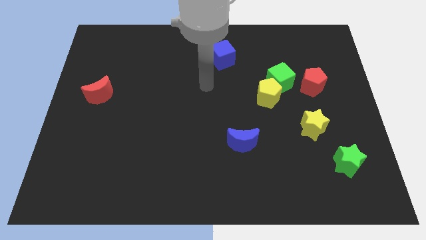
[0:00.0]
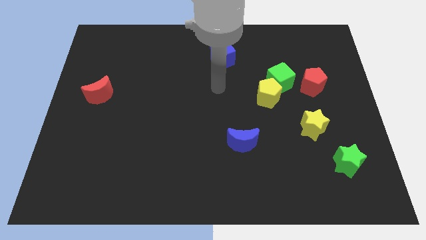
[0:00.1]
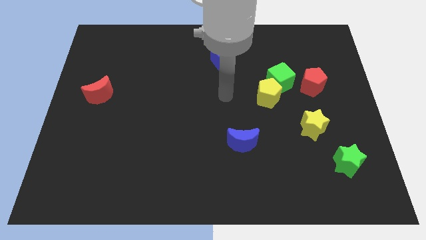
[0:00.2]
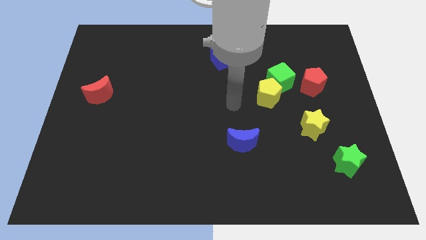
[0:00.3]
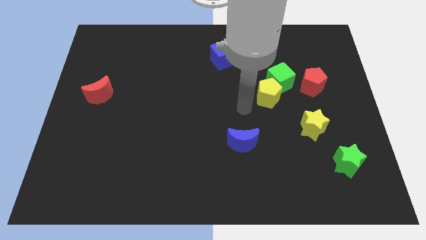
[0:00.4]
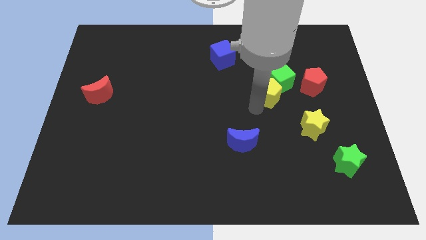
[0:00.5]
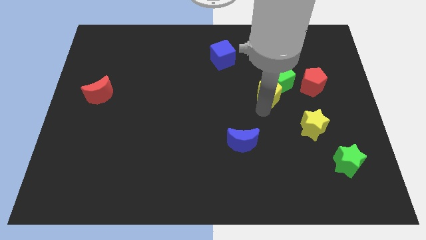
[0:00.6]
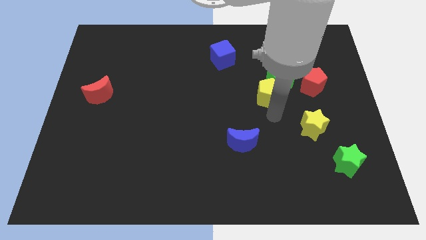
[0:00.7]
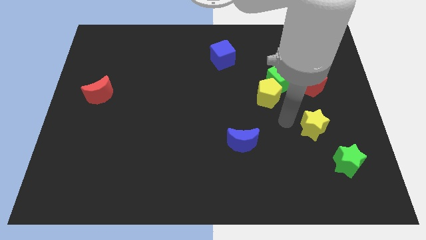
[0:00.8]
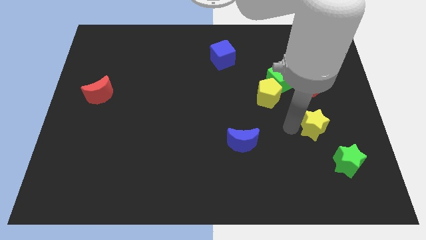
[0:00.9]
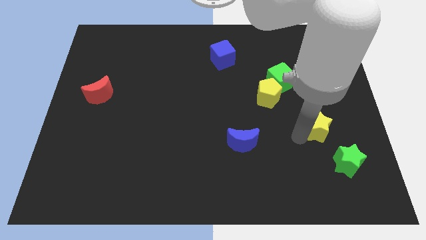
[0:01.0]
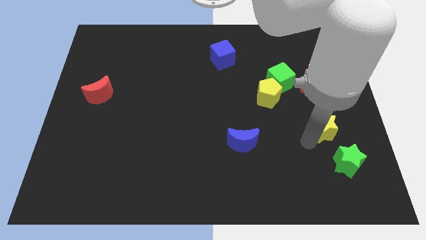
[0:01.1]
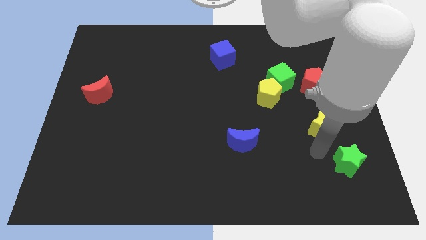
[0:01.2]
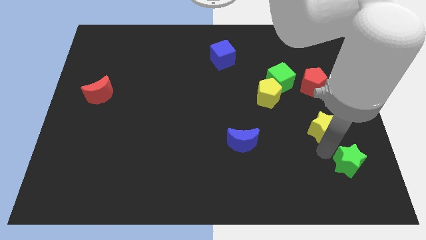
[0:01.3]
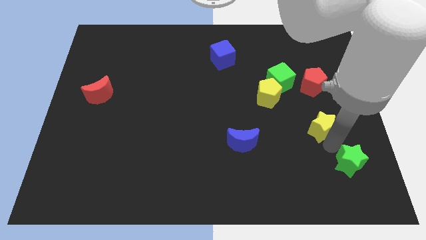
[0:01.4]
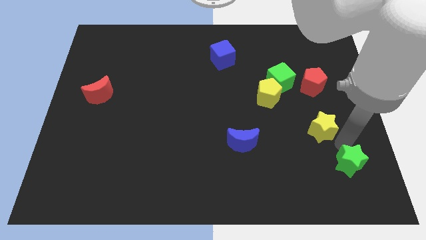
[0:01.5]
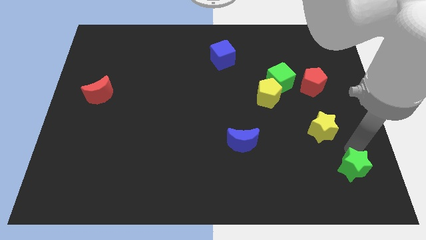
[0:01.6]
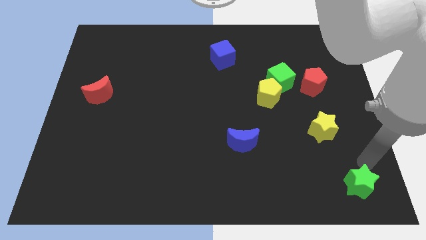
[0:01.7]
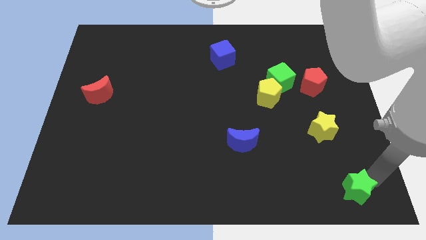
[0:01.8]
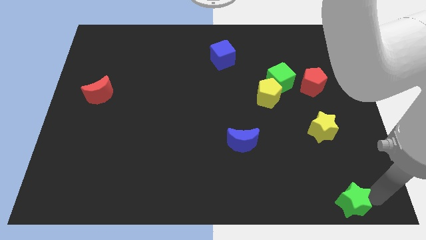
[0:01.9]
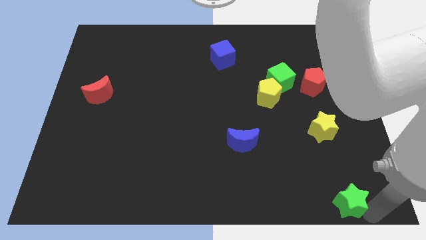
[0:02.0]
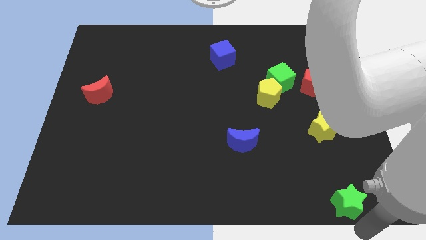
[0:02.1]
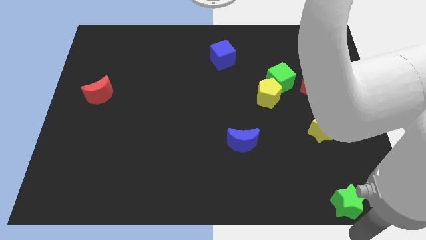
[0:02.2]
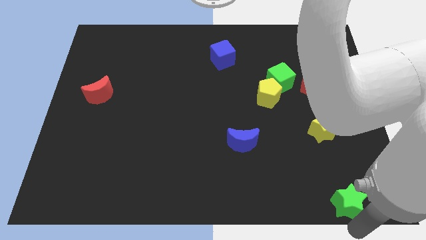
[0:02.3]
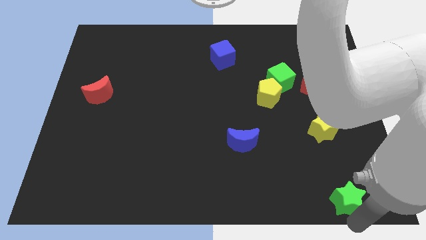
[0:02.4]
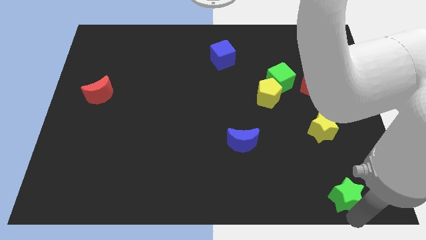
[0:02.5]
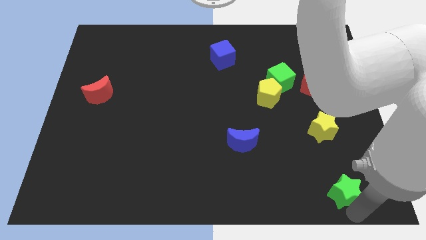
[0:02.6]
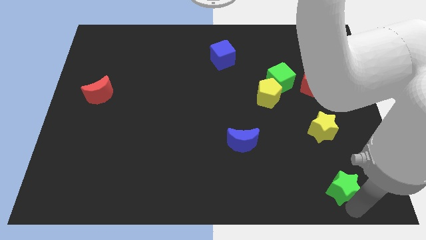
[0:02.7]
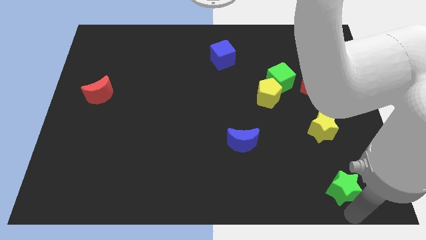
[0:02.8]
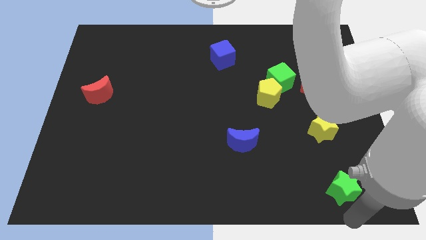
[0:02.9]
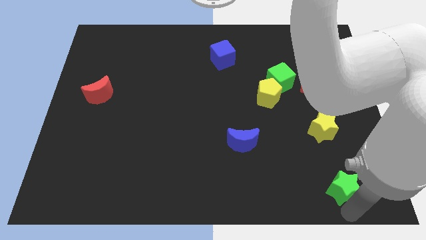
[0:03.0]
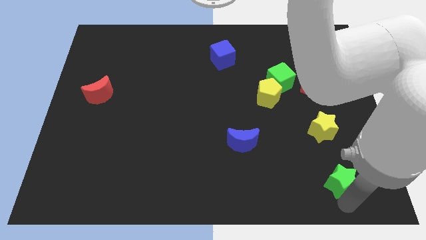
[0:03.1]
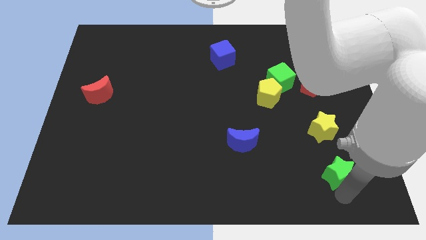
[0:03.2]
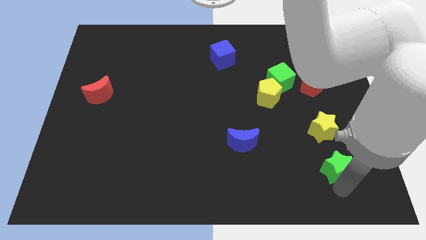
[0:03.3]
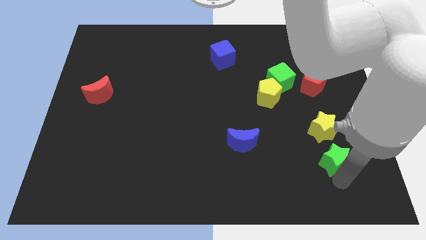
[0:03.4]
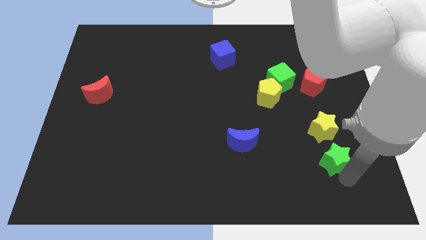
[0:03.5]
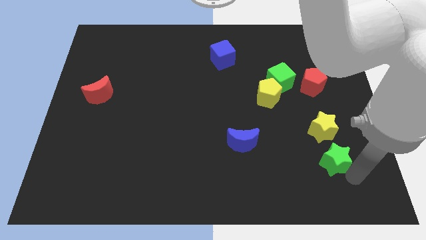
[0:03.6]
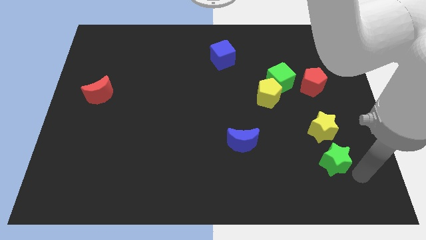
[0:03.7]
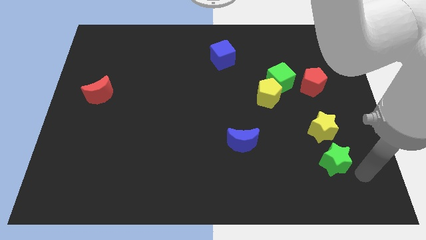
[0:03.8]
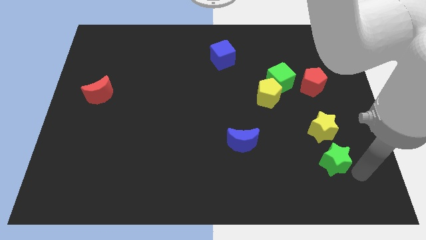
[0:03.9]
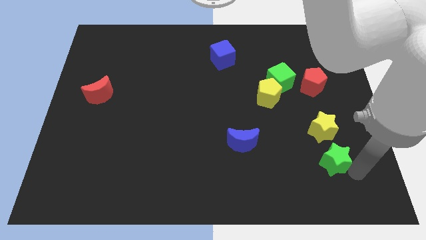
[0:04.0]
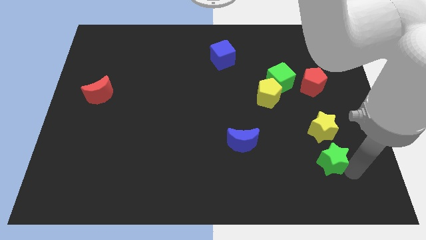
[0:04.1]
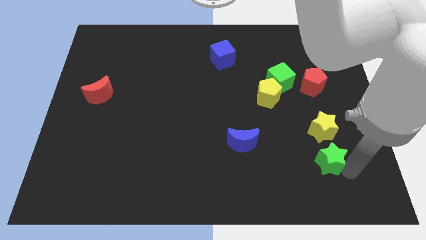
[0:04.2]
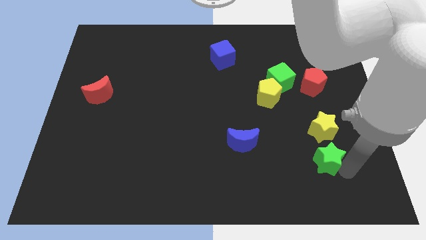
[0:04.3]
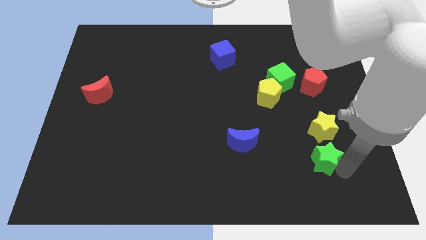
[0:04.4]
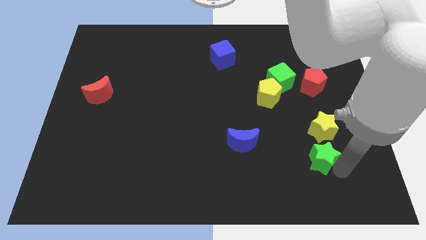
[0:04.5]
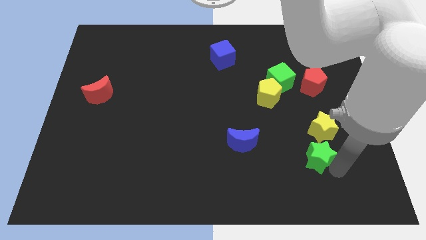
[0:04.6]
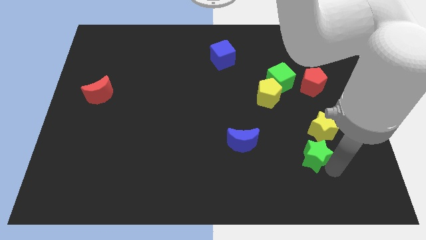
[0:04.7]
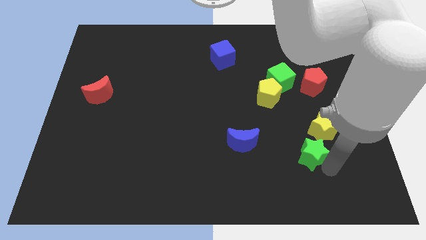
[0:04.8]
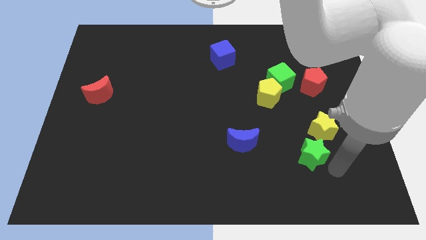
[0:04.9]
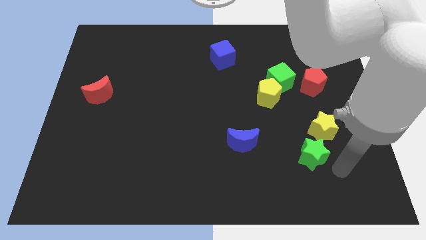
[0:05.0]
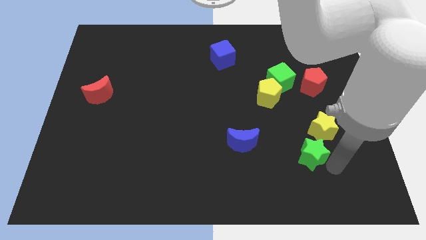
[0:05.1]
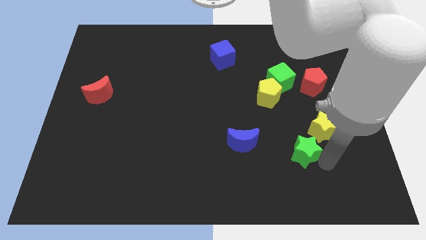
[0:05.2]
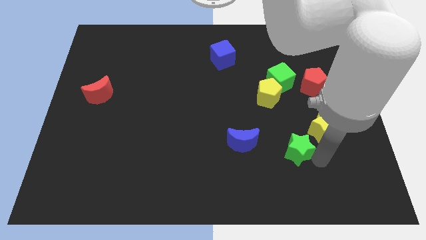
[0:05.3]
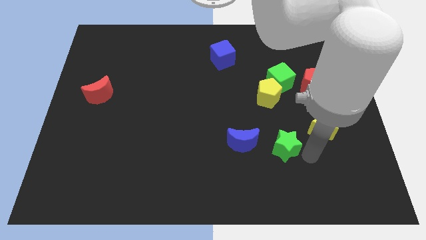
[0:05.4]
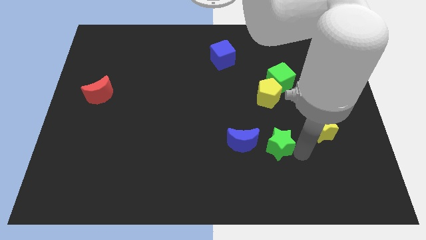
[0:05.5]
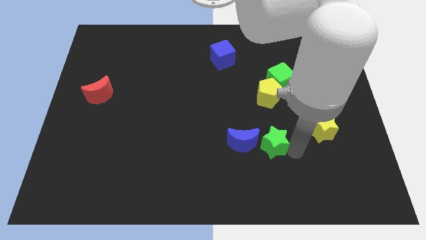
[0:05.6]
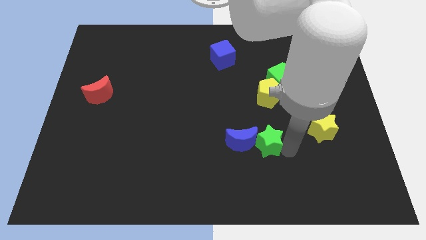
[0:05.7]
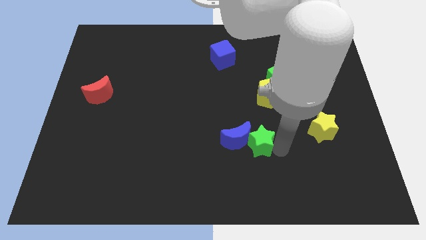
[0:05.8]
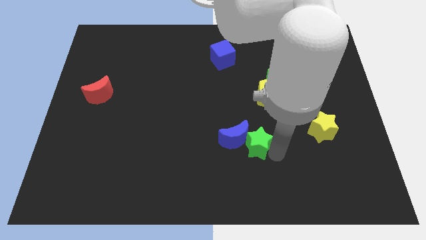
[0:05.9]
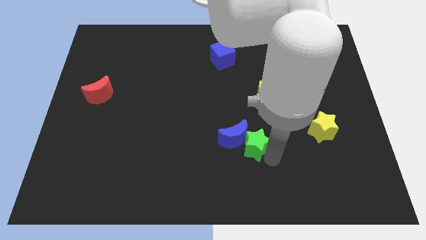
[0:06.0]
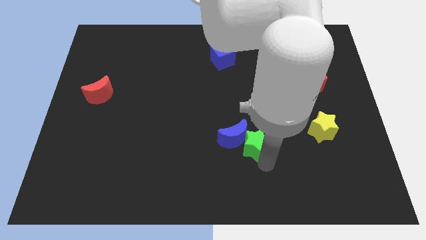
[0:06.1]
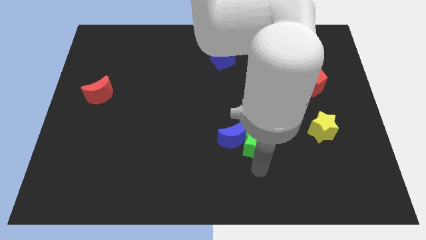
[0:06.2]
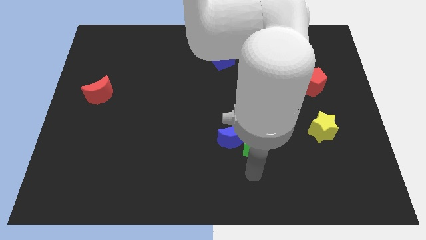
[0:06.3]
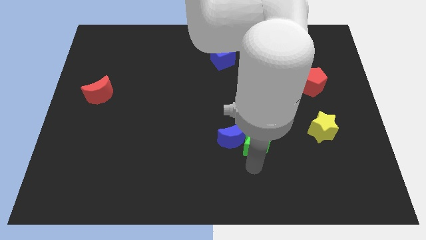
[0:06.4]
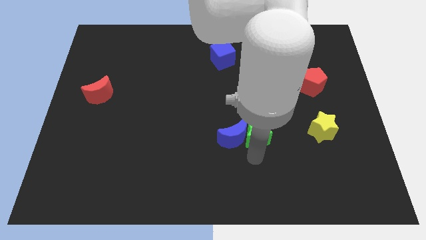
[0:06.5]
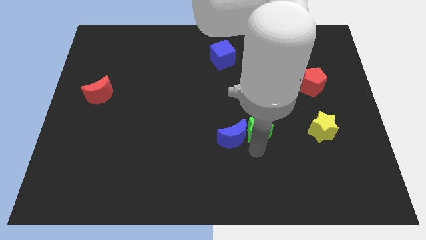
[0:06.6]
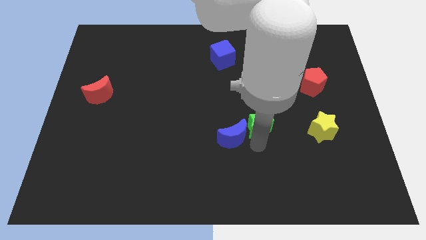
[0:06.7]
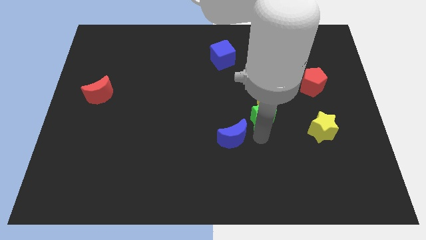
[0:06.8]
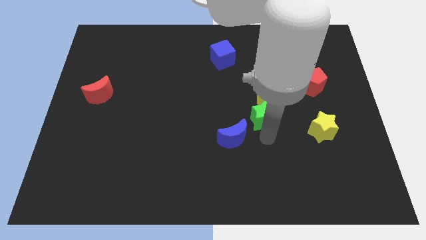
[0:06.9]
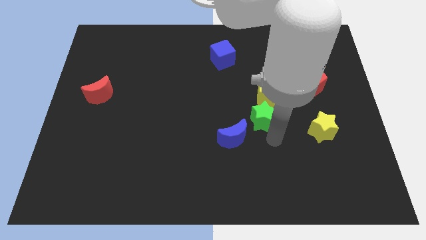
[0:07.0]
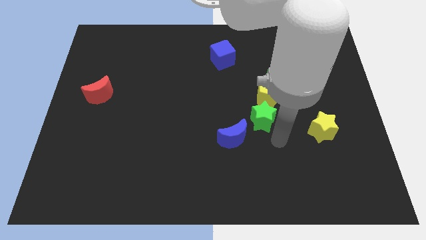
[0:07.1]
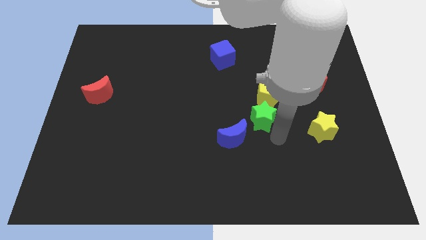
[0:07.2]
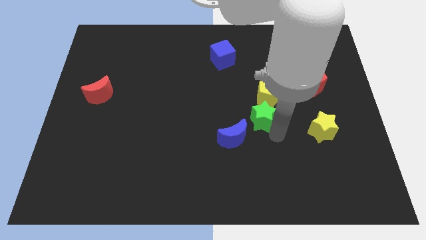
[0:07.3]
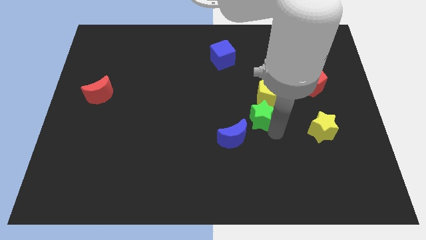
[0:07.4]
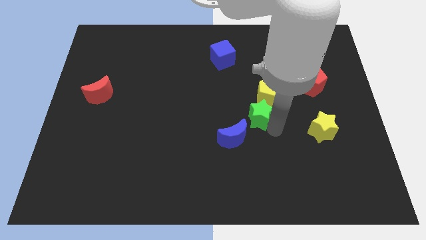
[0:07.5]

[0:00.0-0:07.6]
push the green star up and left diagonally
